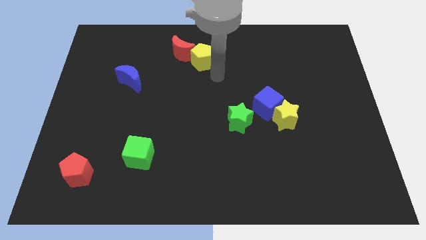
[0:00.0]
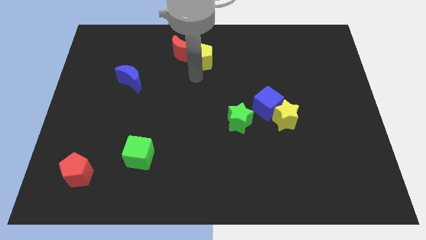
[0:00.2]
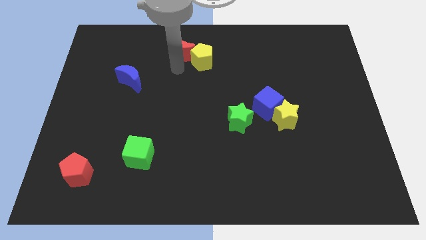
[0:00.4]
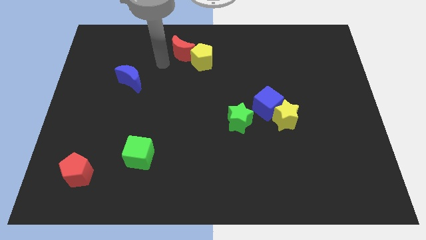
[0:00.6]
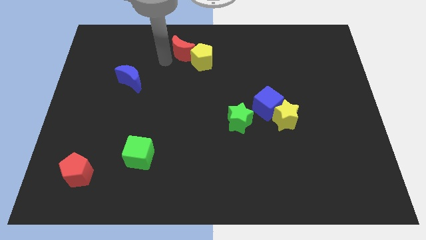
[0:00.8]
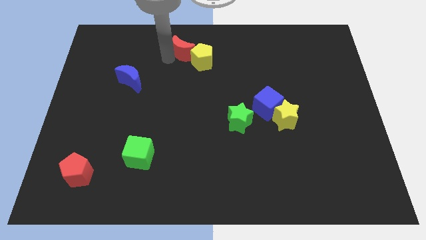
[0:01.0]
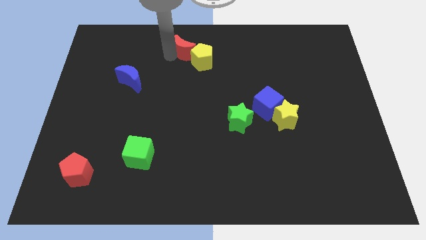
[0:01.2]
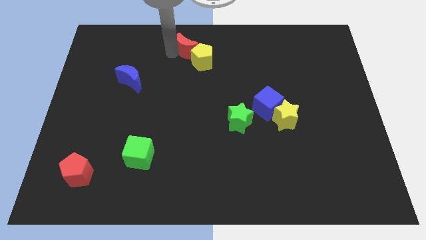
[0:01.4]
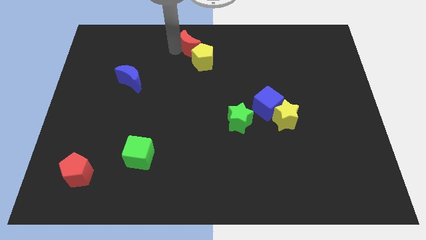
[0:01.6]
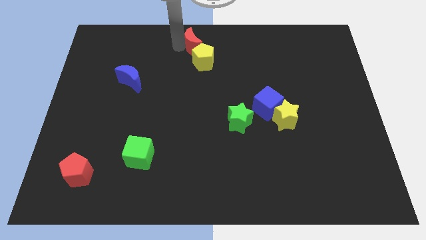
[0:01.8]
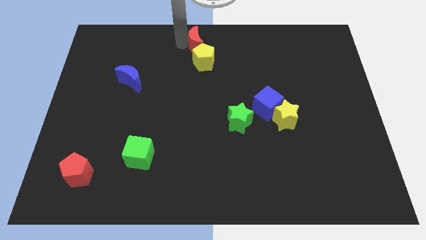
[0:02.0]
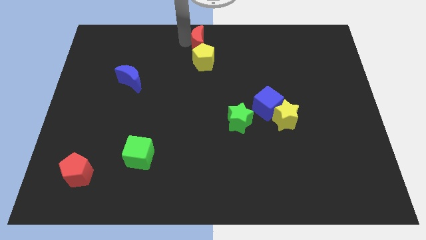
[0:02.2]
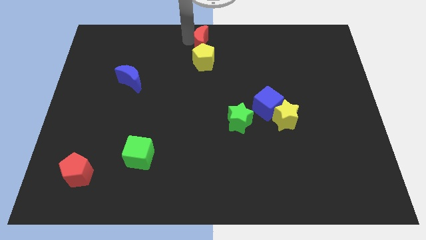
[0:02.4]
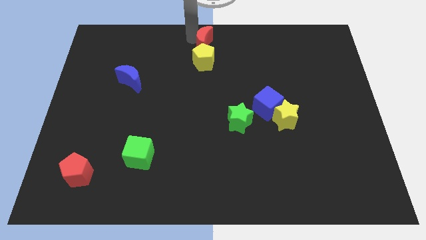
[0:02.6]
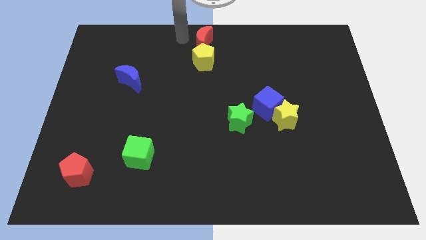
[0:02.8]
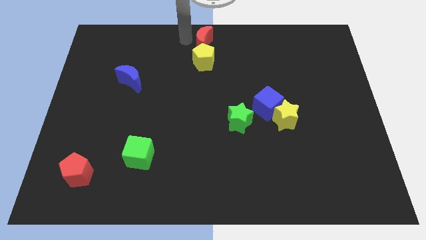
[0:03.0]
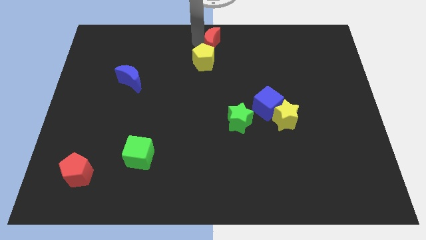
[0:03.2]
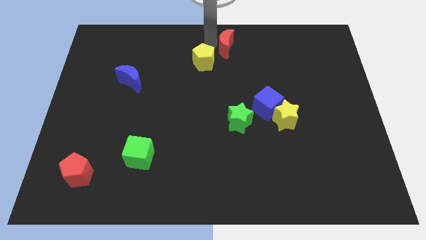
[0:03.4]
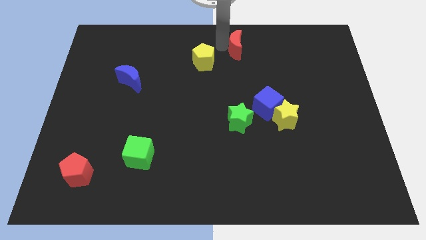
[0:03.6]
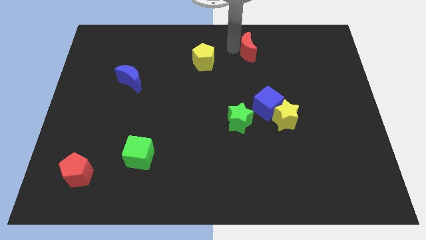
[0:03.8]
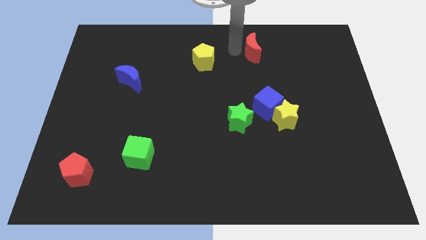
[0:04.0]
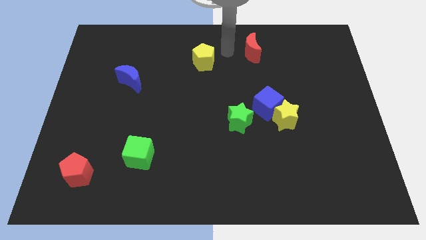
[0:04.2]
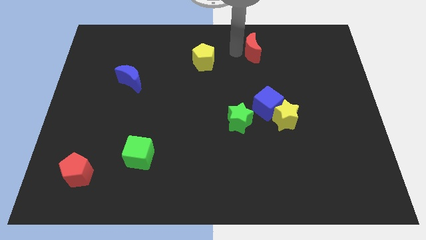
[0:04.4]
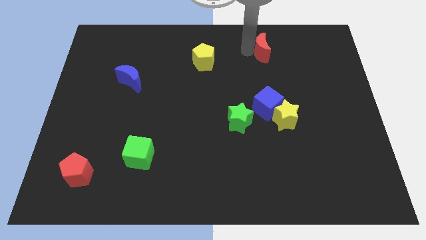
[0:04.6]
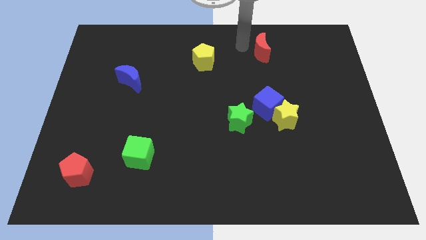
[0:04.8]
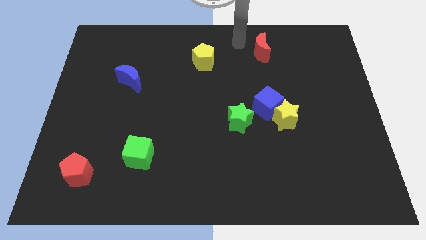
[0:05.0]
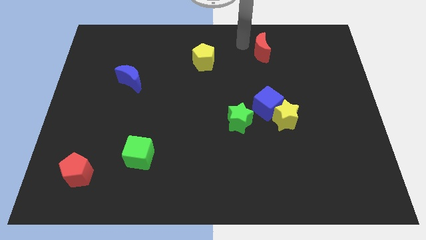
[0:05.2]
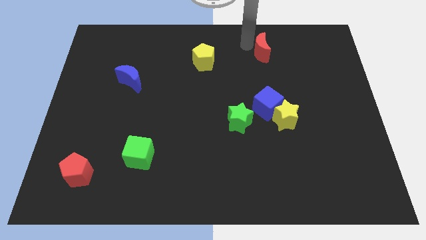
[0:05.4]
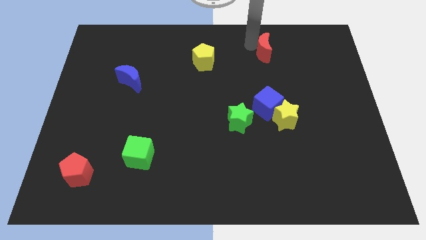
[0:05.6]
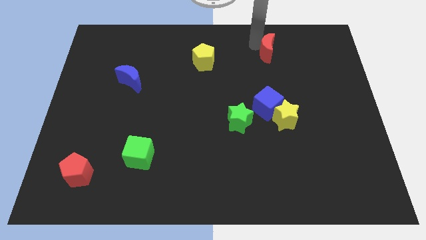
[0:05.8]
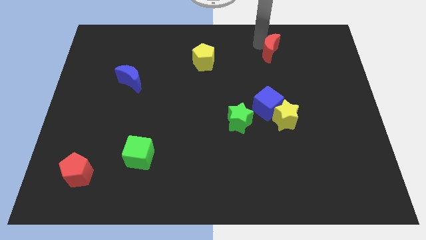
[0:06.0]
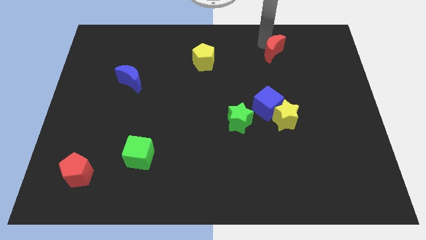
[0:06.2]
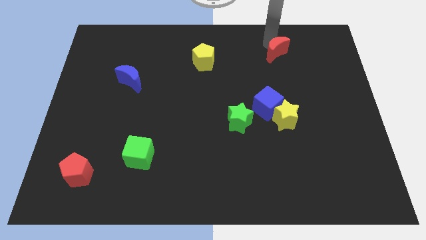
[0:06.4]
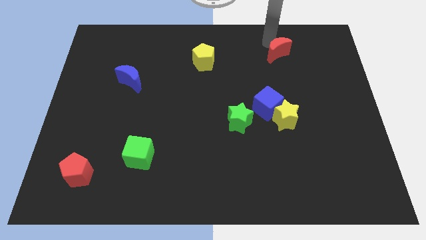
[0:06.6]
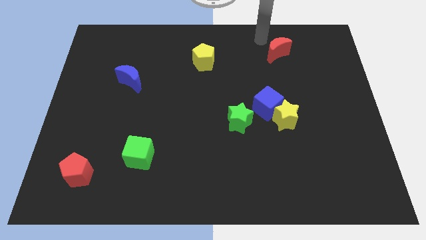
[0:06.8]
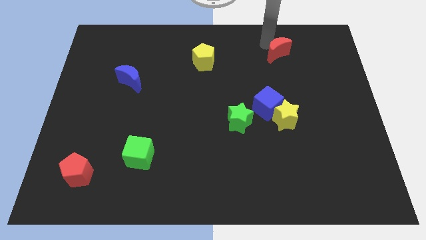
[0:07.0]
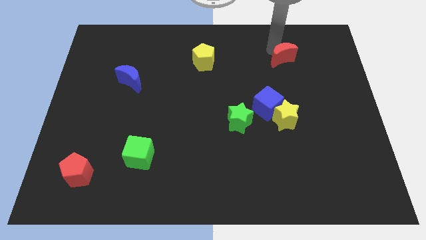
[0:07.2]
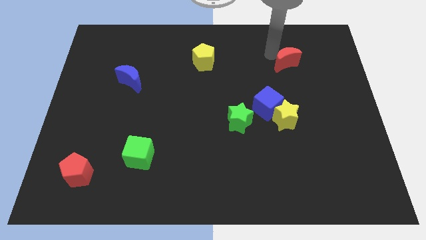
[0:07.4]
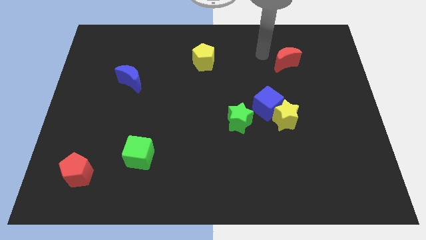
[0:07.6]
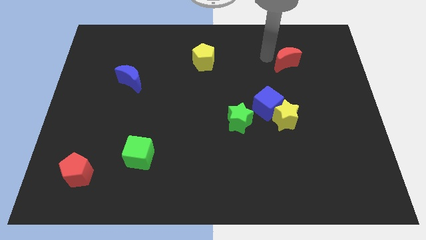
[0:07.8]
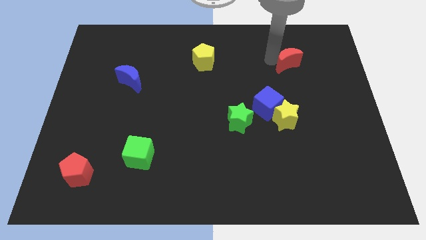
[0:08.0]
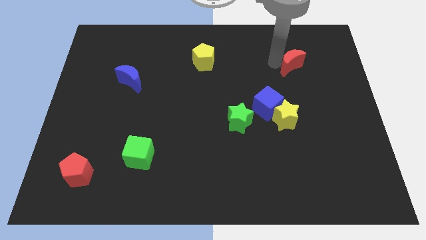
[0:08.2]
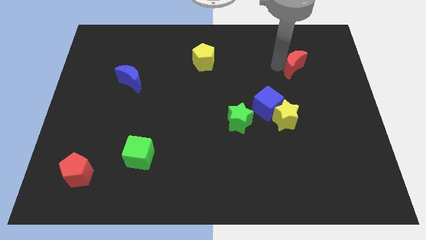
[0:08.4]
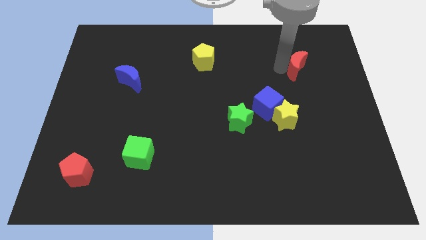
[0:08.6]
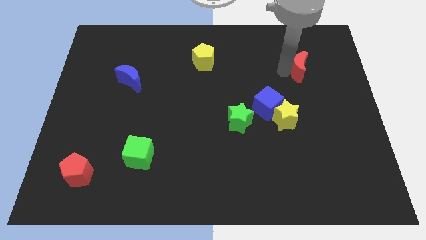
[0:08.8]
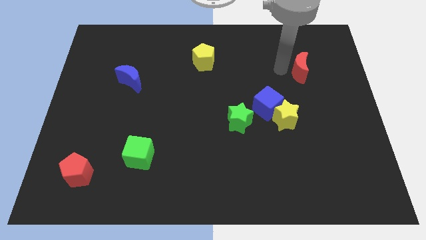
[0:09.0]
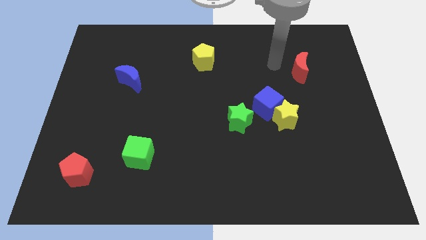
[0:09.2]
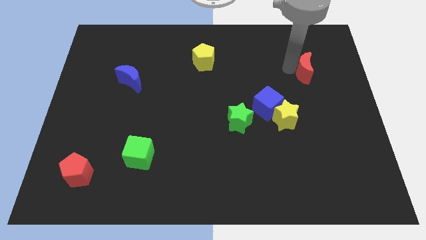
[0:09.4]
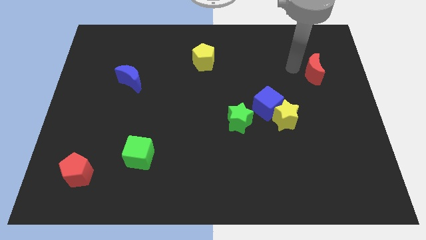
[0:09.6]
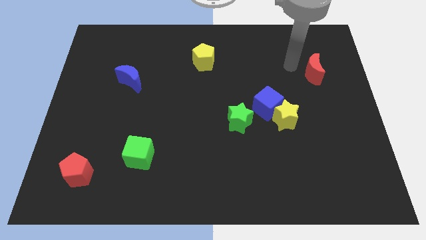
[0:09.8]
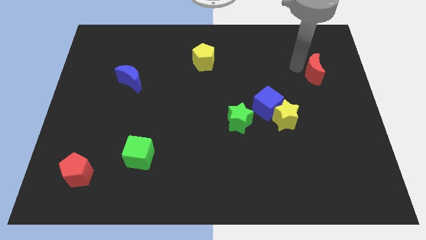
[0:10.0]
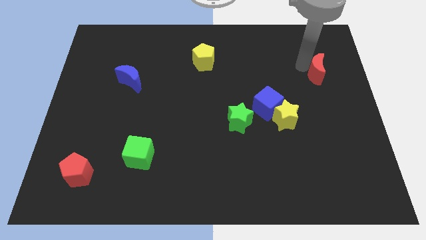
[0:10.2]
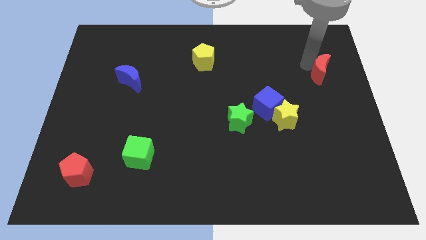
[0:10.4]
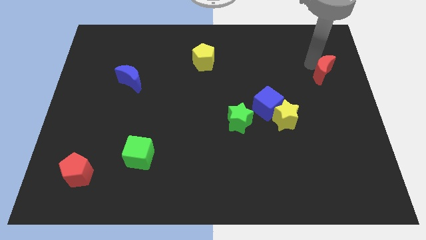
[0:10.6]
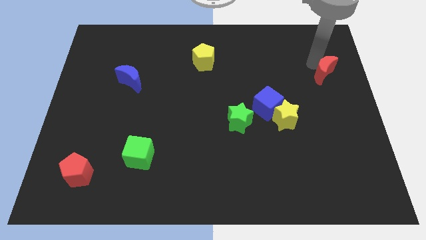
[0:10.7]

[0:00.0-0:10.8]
push the red moon to the right side

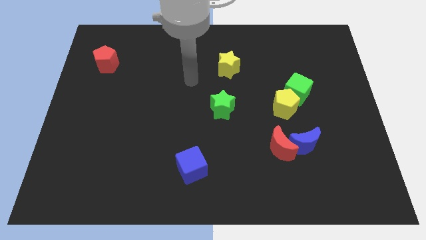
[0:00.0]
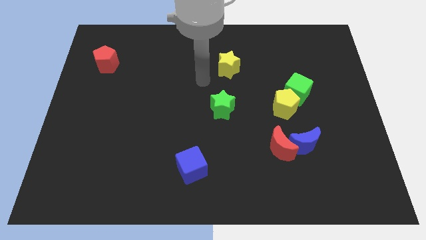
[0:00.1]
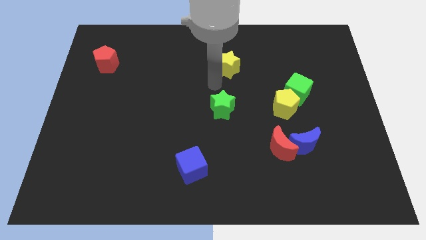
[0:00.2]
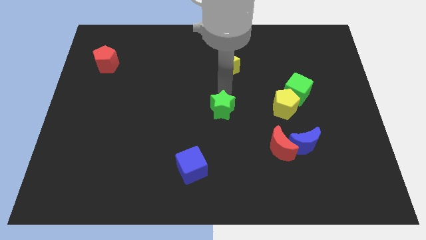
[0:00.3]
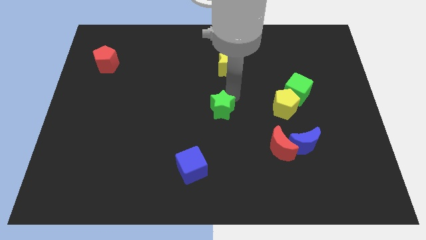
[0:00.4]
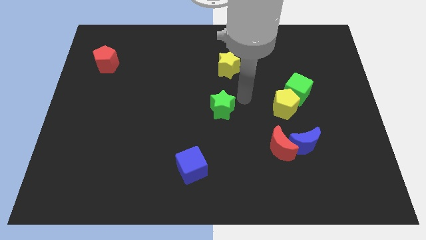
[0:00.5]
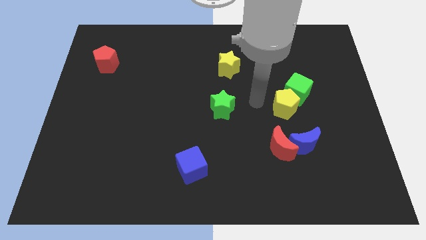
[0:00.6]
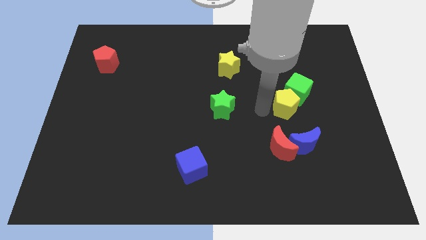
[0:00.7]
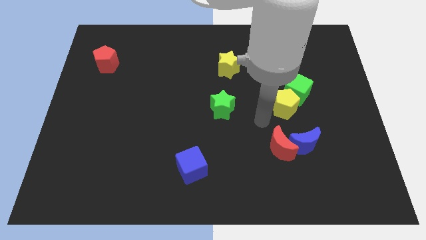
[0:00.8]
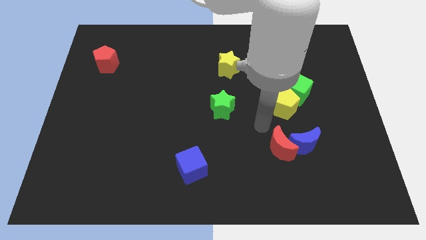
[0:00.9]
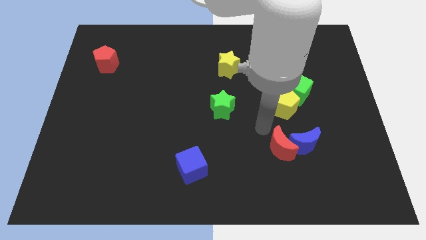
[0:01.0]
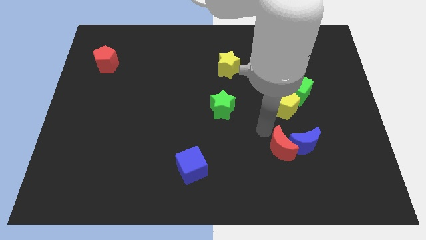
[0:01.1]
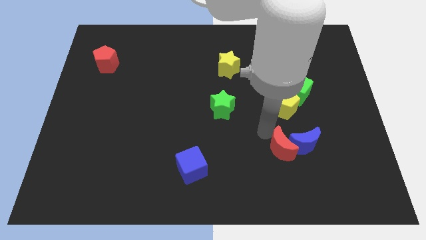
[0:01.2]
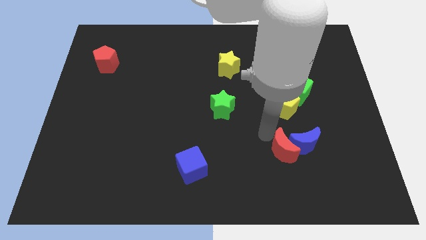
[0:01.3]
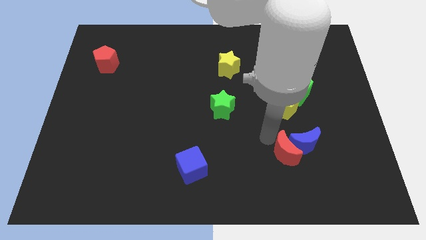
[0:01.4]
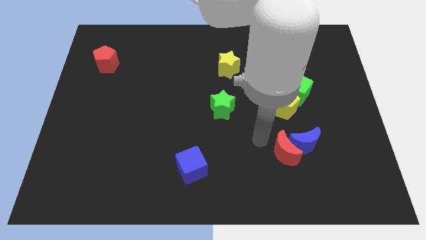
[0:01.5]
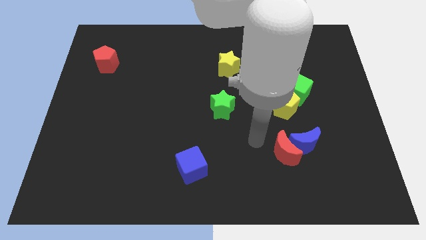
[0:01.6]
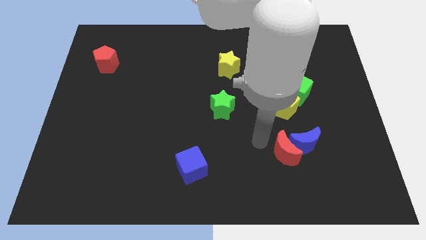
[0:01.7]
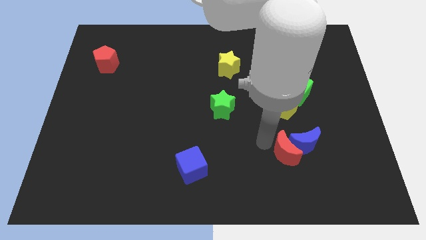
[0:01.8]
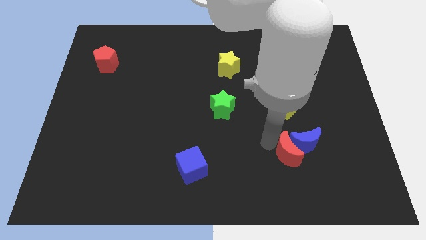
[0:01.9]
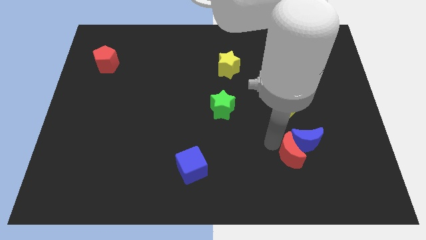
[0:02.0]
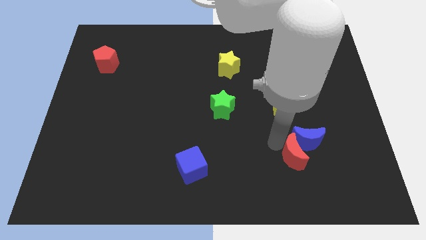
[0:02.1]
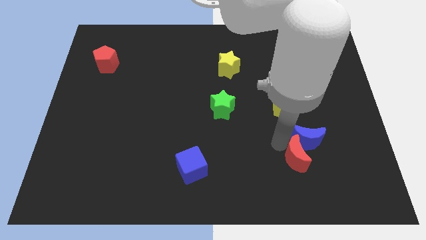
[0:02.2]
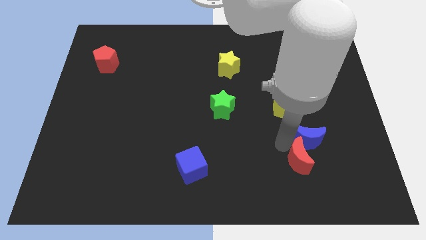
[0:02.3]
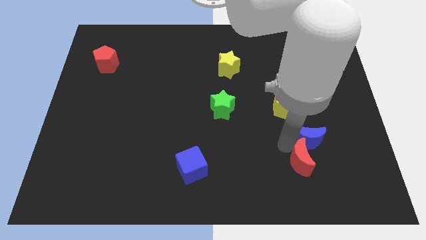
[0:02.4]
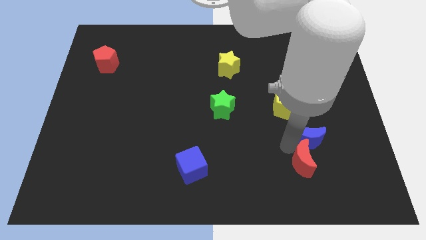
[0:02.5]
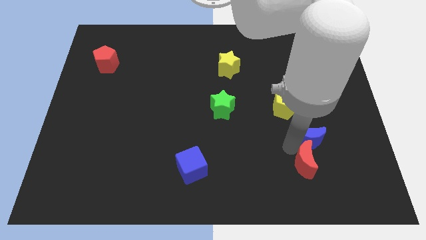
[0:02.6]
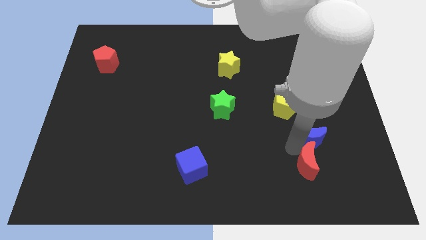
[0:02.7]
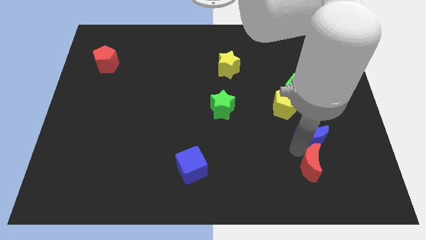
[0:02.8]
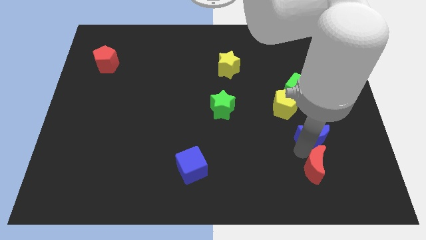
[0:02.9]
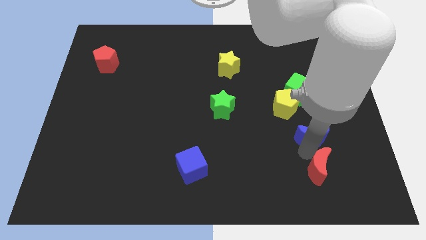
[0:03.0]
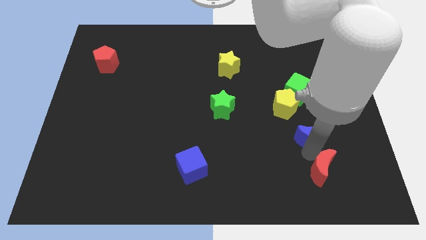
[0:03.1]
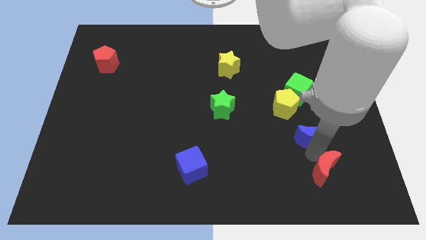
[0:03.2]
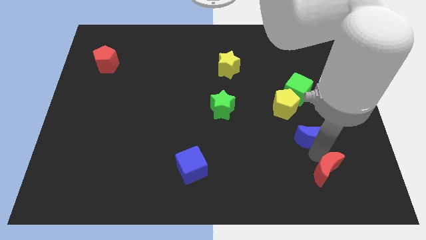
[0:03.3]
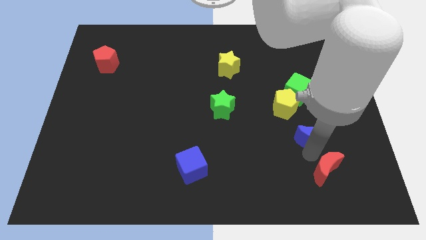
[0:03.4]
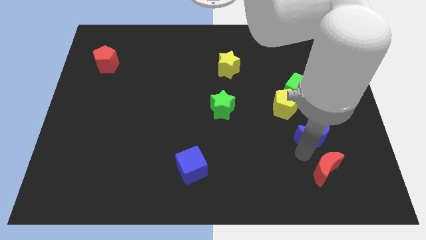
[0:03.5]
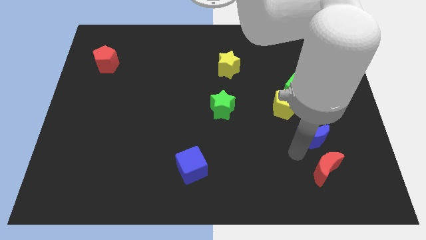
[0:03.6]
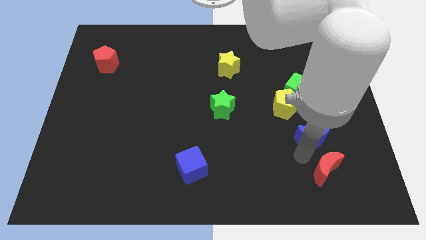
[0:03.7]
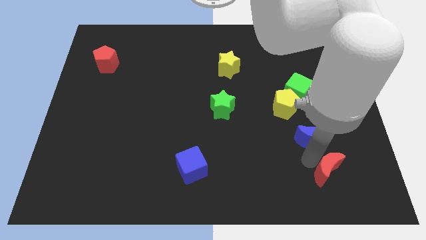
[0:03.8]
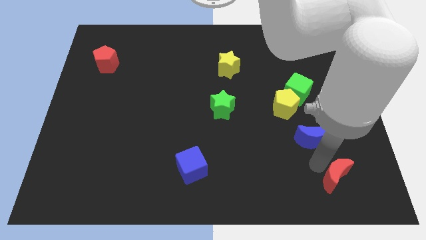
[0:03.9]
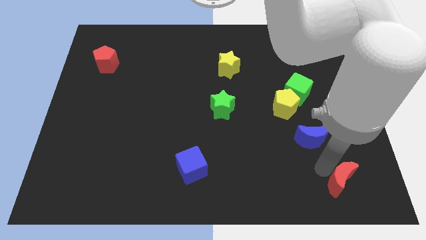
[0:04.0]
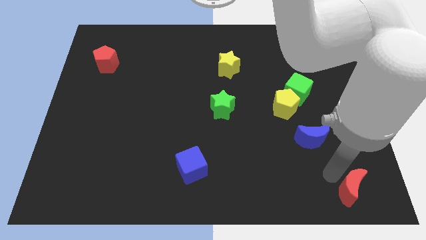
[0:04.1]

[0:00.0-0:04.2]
move the red moon to the bottom right of the board
